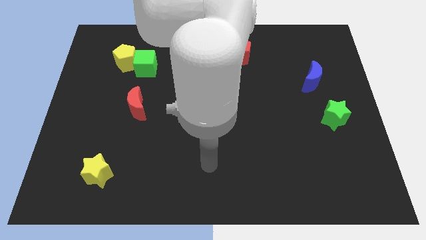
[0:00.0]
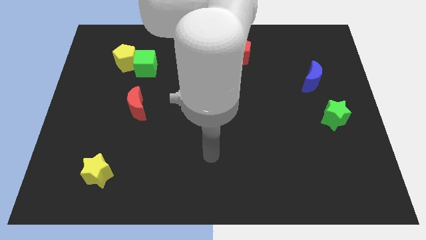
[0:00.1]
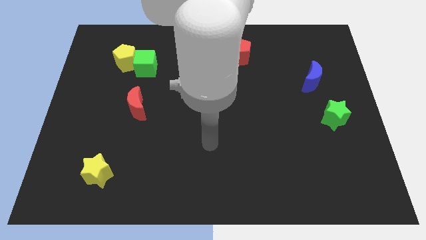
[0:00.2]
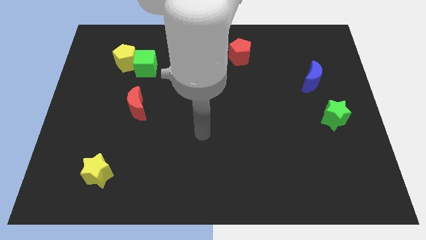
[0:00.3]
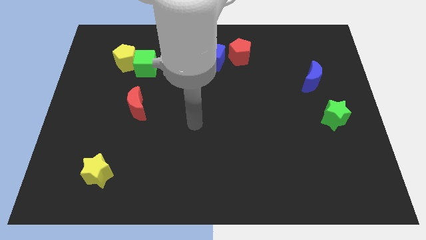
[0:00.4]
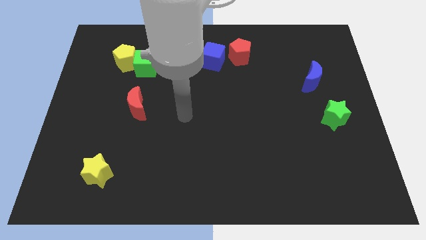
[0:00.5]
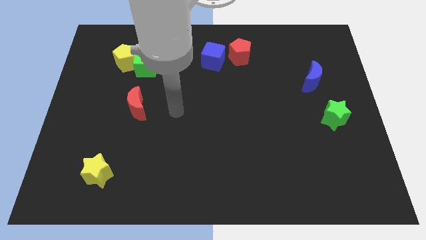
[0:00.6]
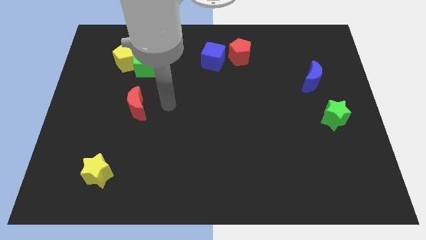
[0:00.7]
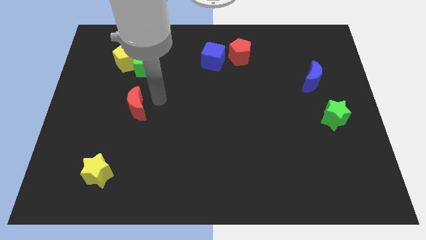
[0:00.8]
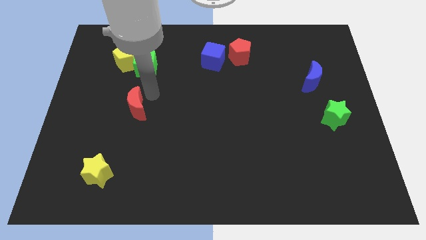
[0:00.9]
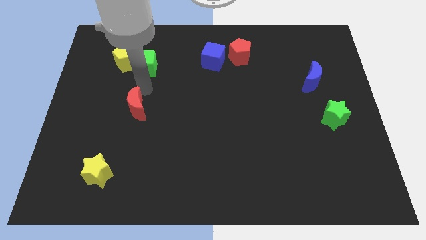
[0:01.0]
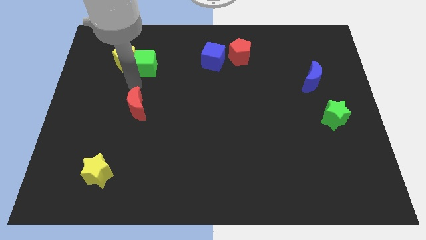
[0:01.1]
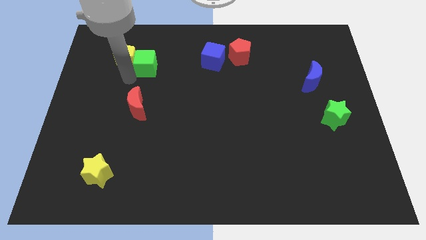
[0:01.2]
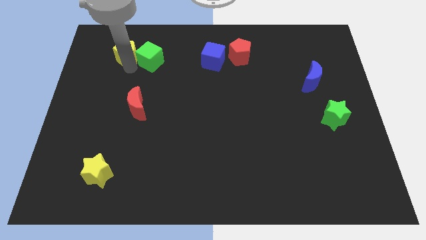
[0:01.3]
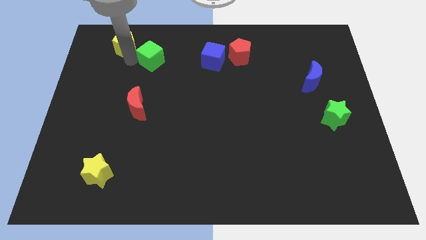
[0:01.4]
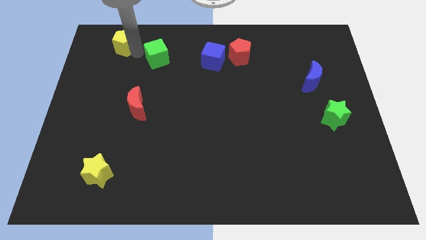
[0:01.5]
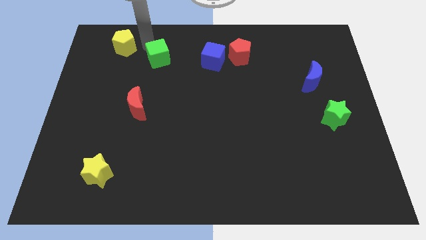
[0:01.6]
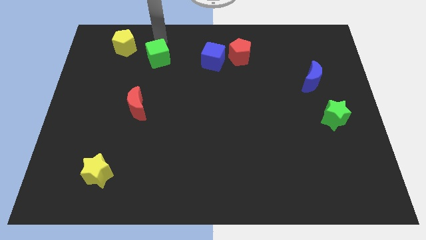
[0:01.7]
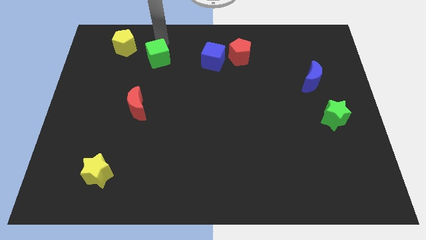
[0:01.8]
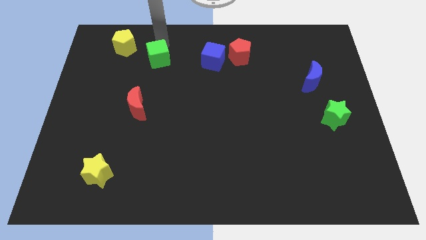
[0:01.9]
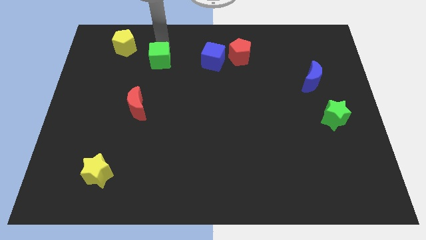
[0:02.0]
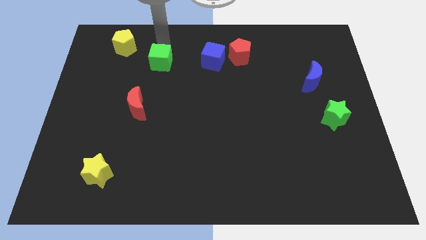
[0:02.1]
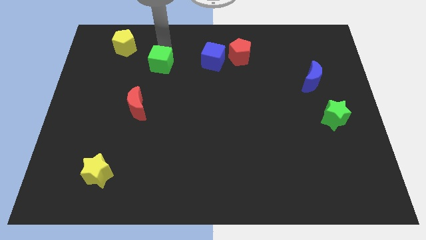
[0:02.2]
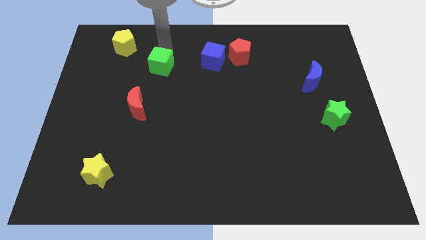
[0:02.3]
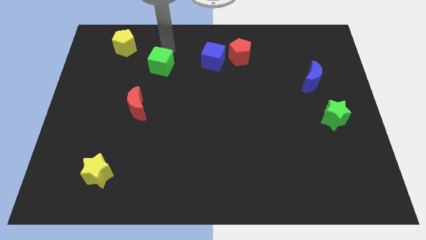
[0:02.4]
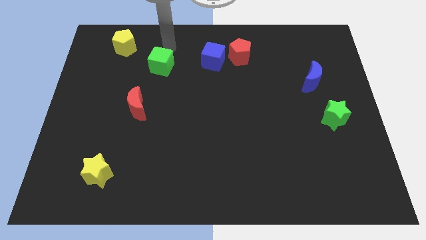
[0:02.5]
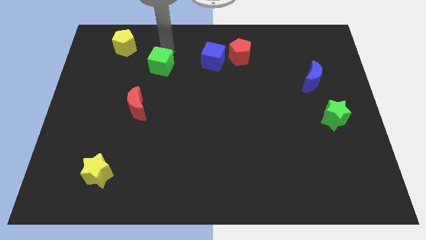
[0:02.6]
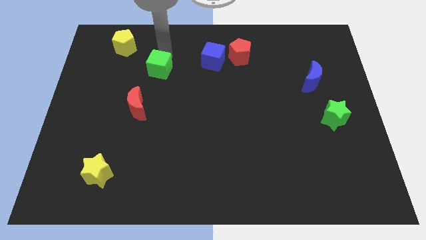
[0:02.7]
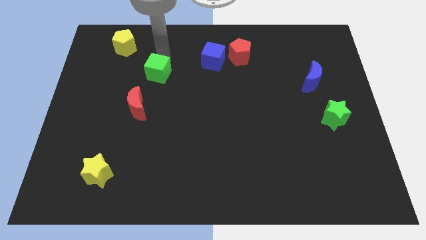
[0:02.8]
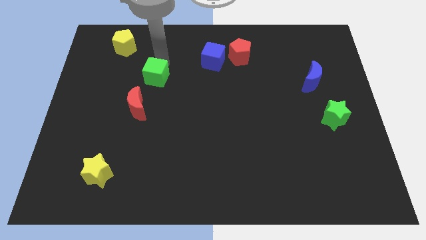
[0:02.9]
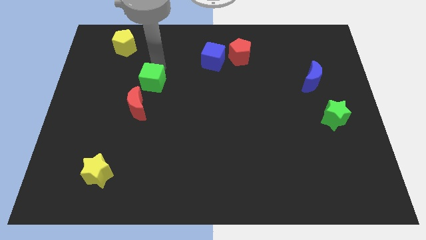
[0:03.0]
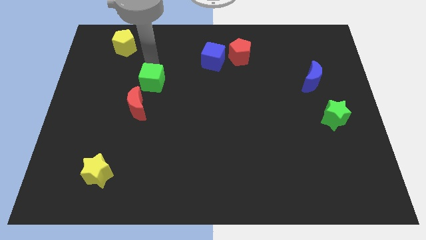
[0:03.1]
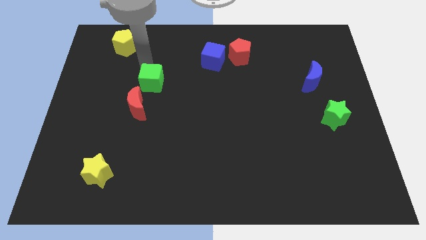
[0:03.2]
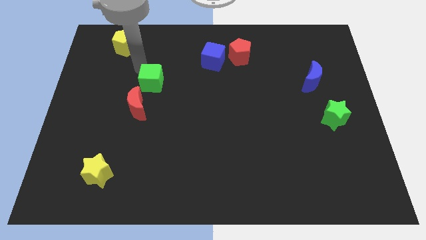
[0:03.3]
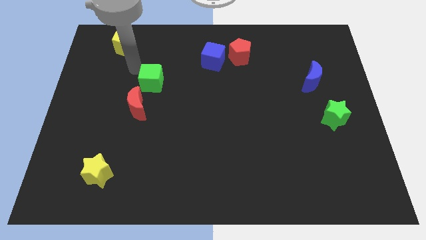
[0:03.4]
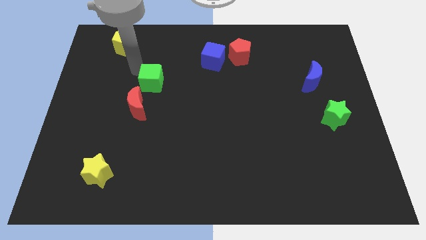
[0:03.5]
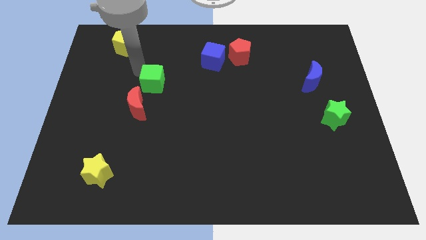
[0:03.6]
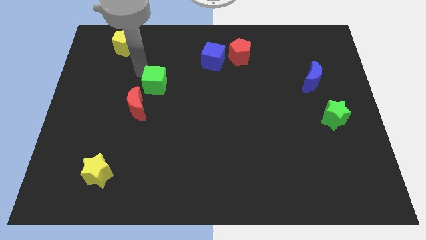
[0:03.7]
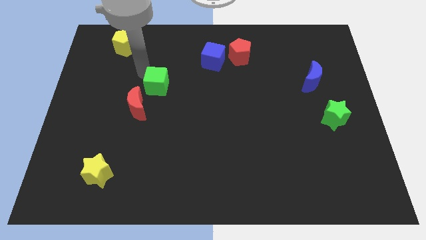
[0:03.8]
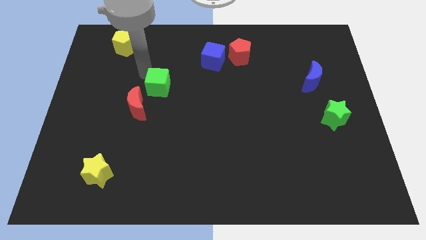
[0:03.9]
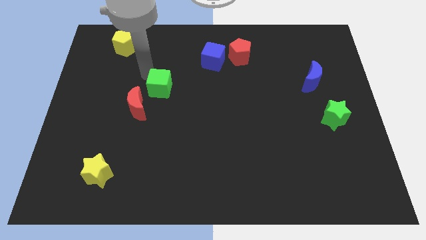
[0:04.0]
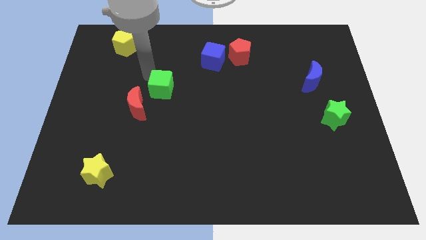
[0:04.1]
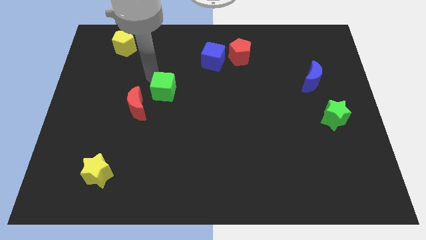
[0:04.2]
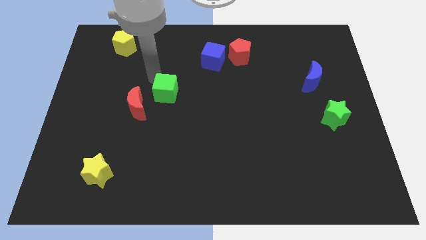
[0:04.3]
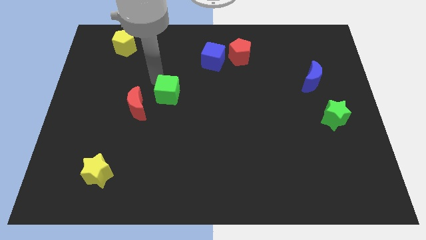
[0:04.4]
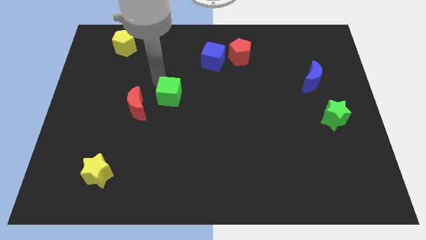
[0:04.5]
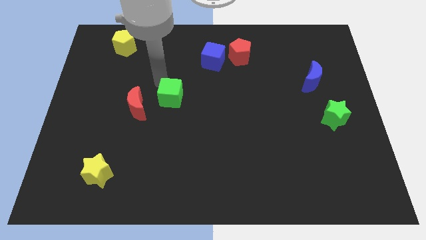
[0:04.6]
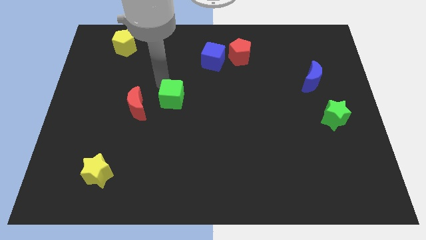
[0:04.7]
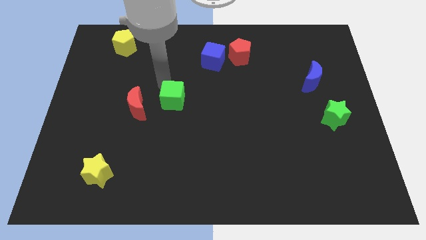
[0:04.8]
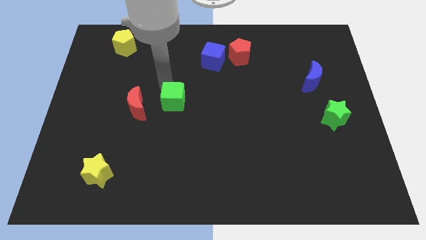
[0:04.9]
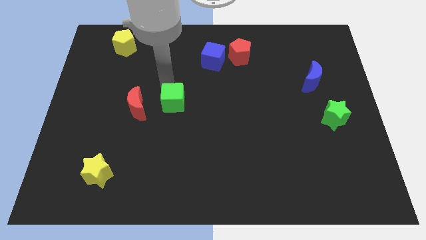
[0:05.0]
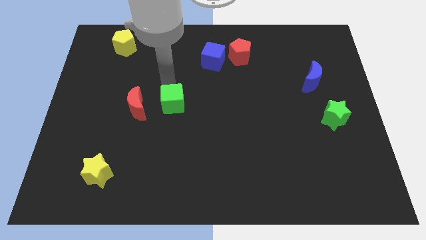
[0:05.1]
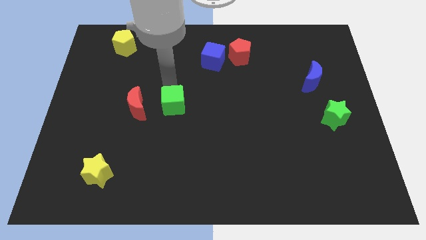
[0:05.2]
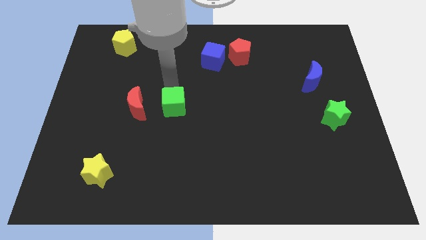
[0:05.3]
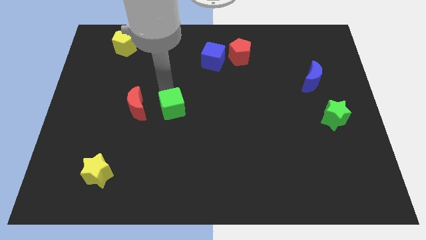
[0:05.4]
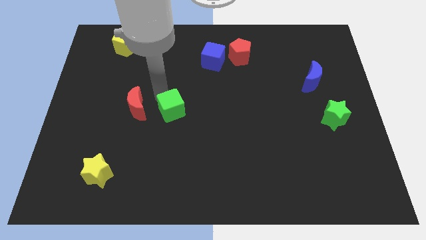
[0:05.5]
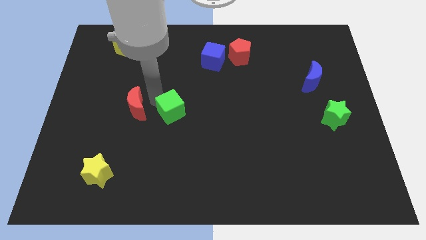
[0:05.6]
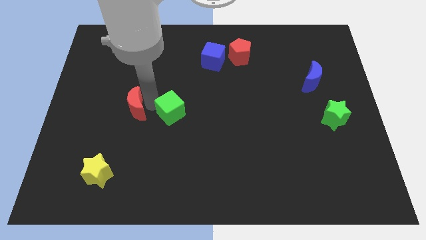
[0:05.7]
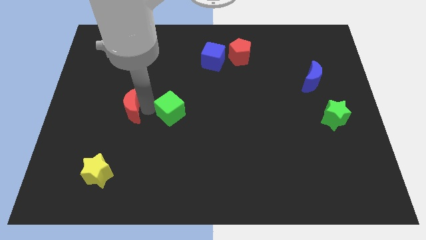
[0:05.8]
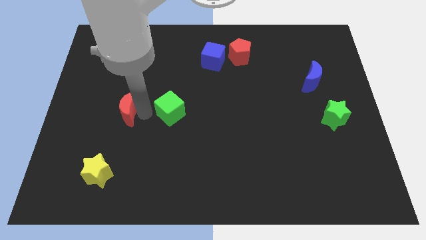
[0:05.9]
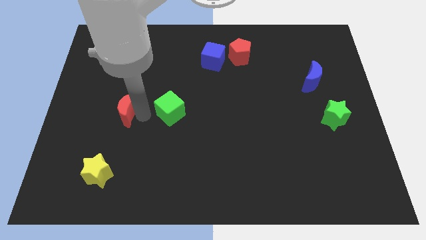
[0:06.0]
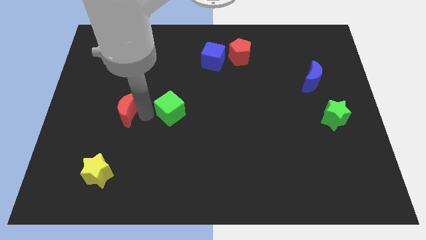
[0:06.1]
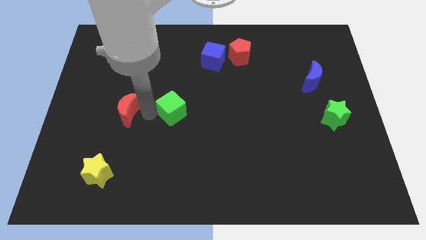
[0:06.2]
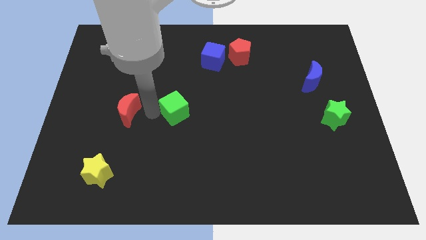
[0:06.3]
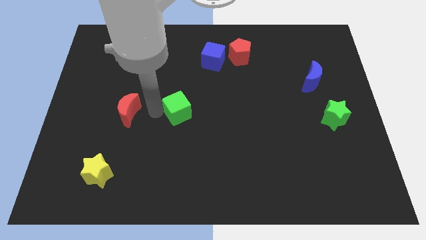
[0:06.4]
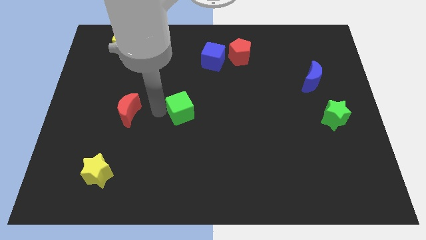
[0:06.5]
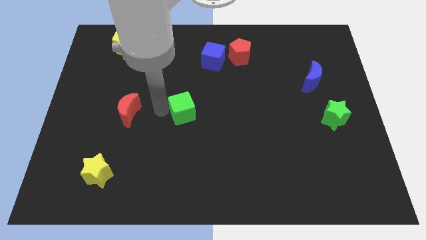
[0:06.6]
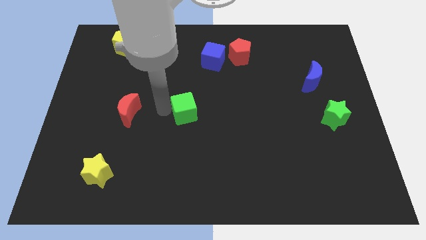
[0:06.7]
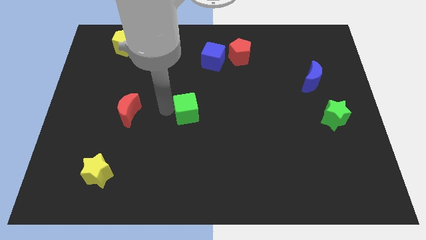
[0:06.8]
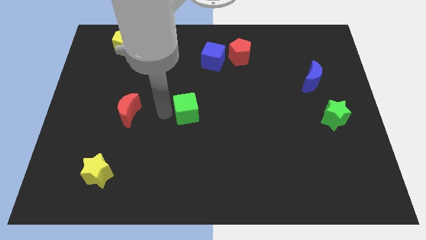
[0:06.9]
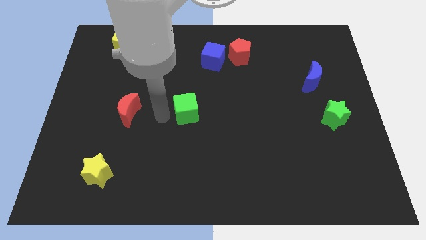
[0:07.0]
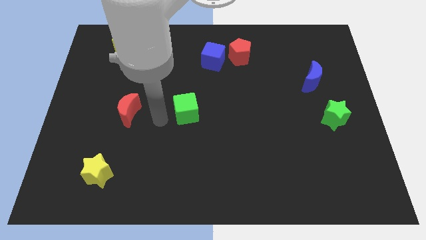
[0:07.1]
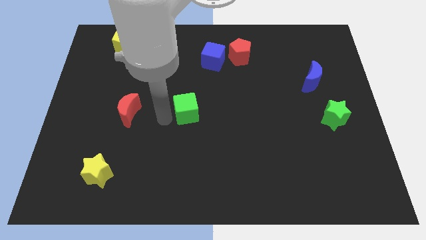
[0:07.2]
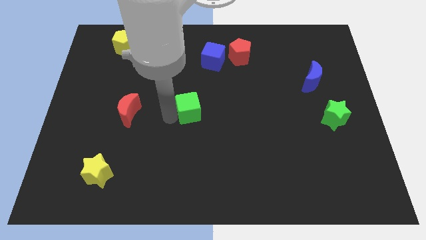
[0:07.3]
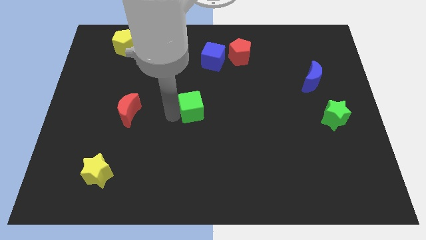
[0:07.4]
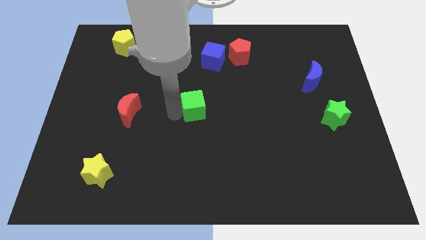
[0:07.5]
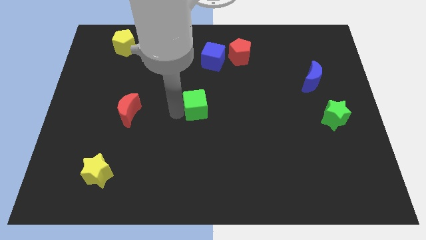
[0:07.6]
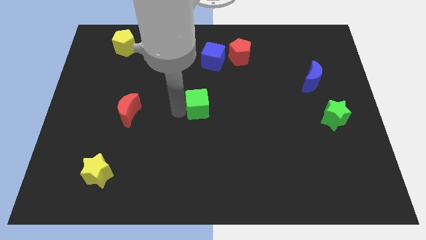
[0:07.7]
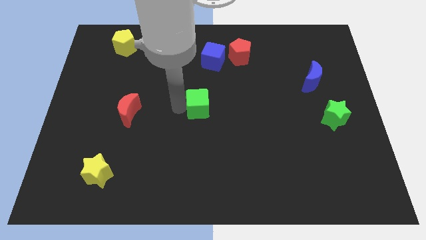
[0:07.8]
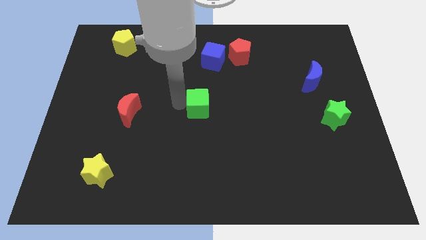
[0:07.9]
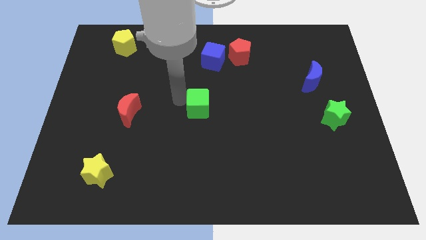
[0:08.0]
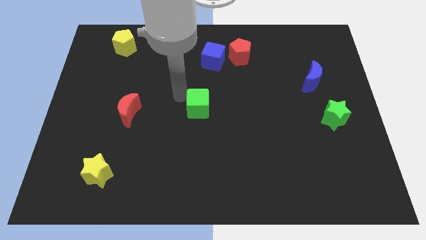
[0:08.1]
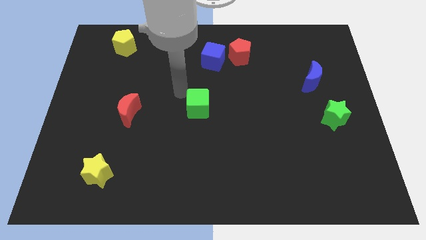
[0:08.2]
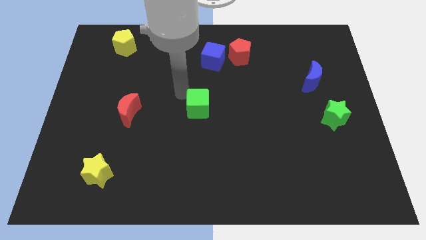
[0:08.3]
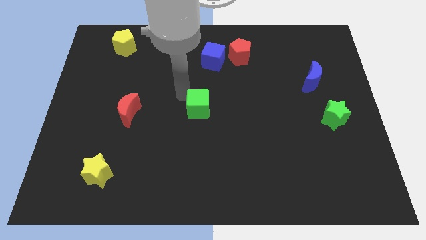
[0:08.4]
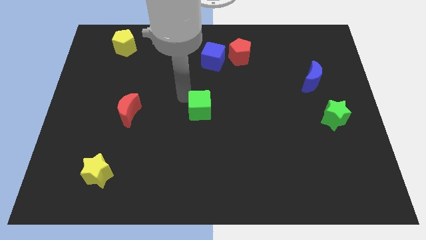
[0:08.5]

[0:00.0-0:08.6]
move the green cube diagonally downwards and right
